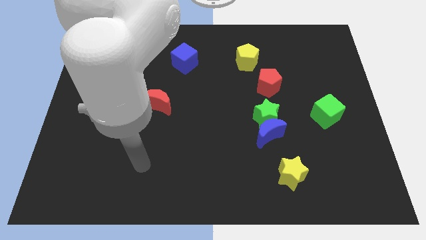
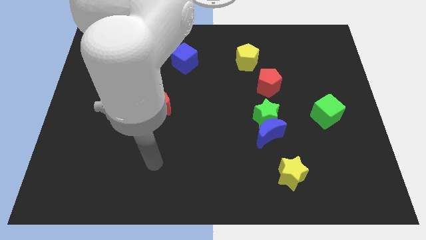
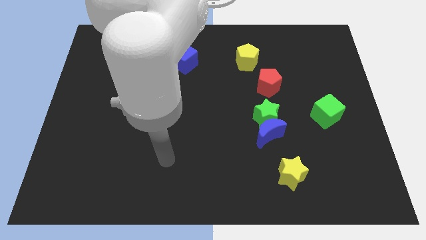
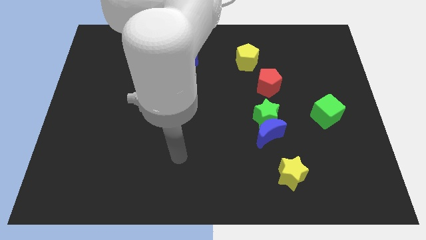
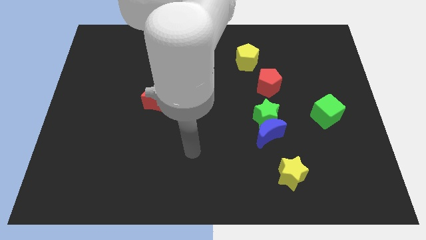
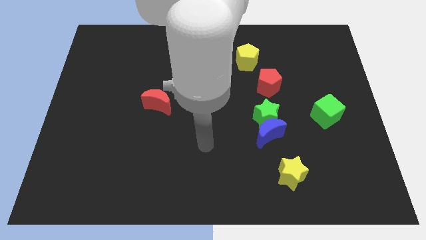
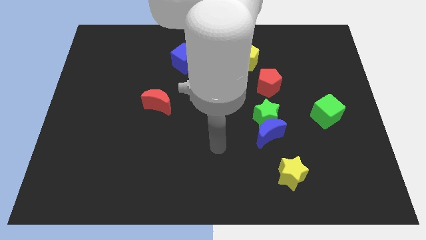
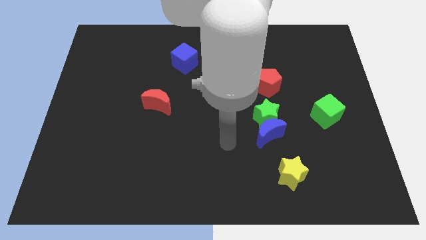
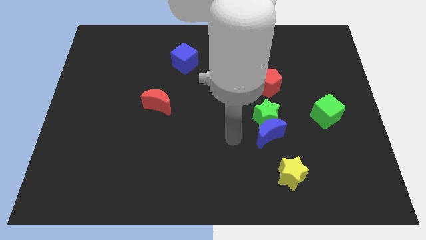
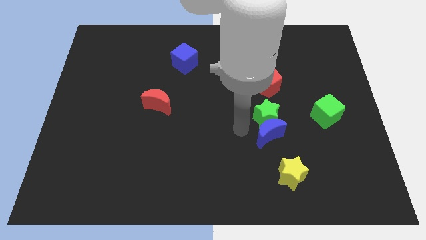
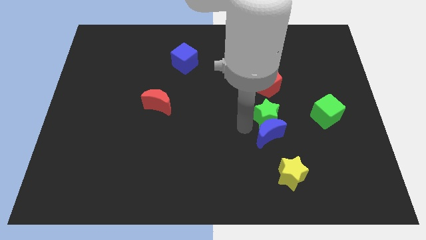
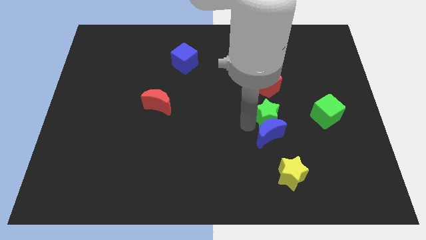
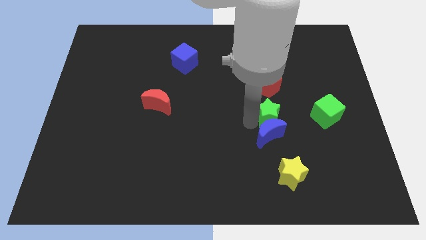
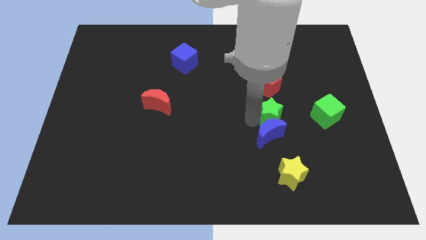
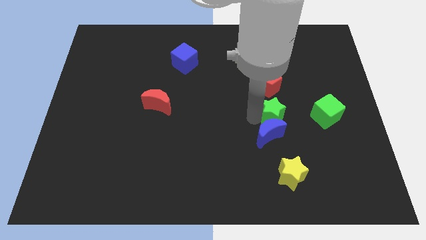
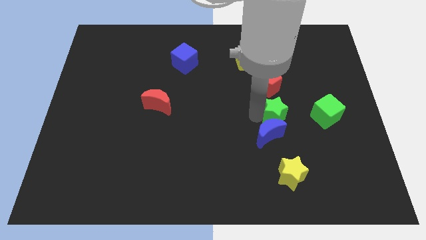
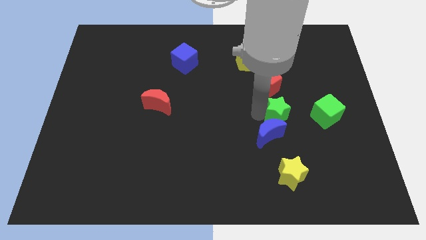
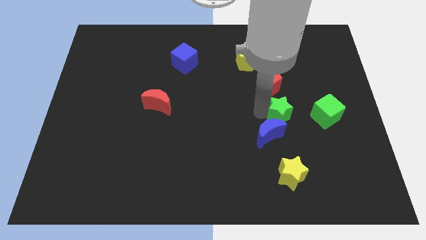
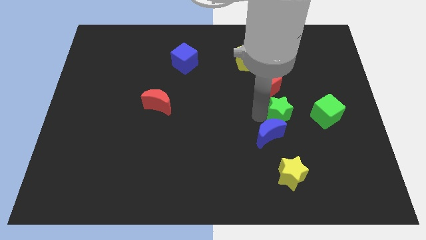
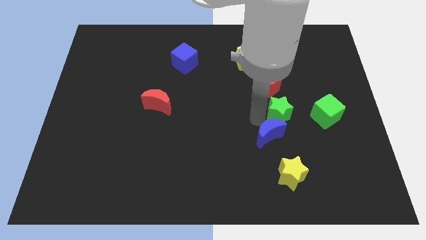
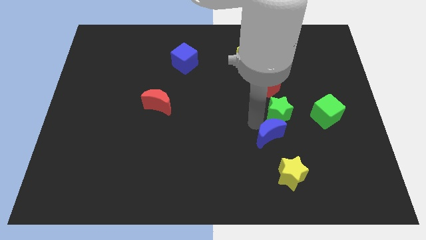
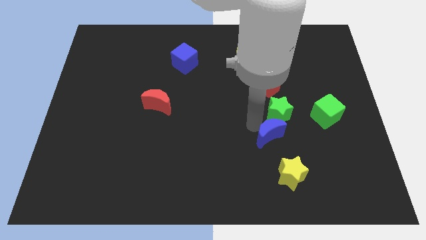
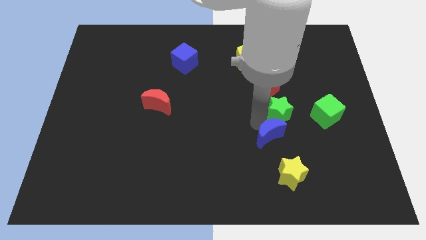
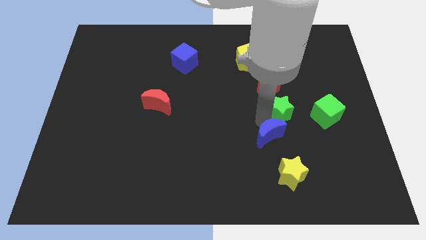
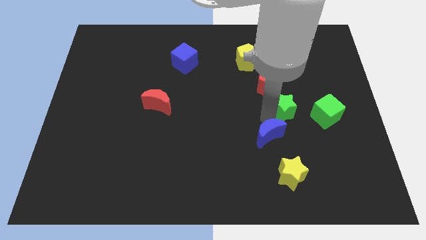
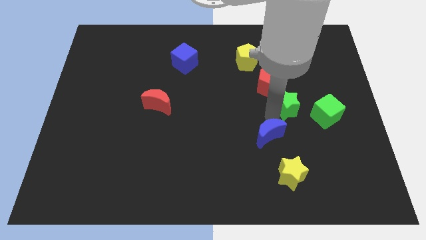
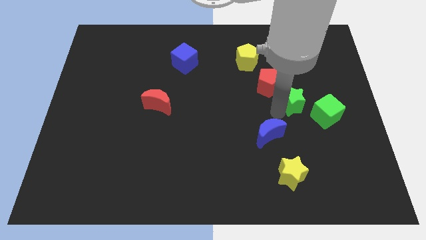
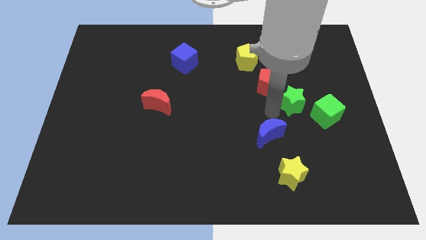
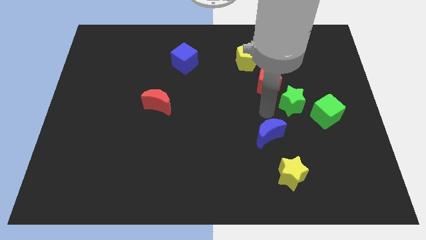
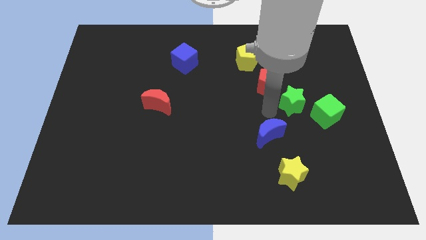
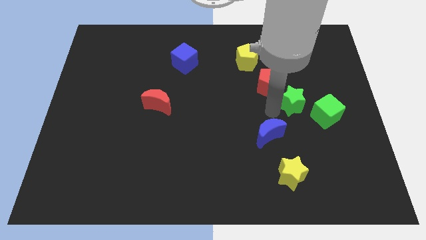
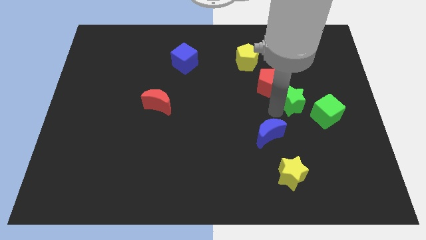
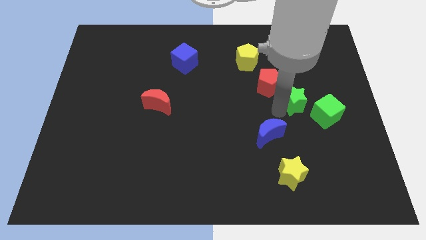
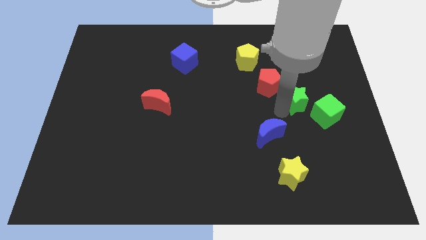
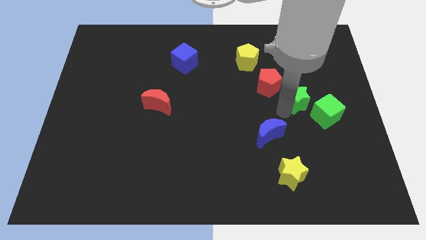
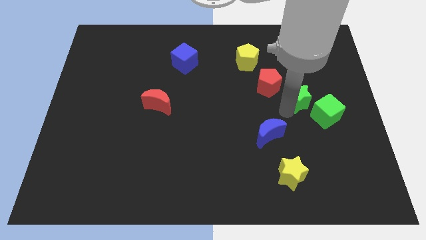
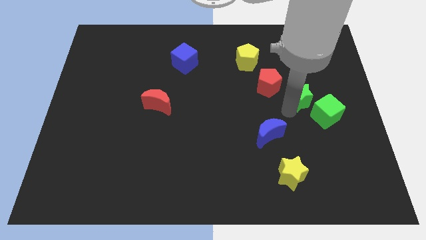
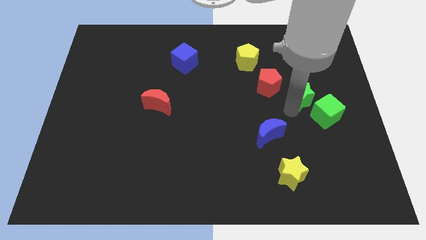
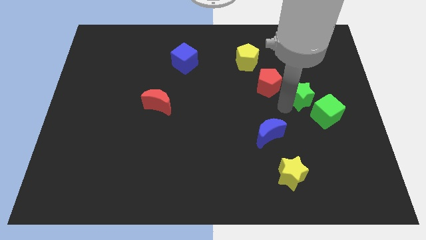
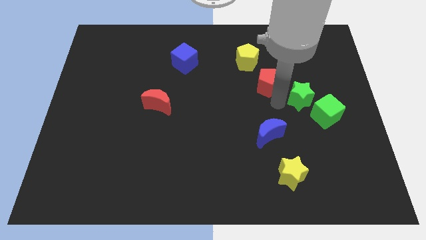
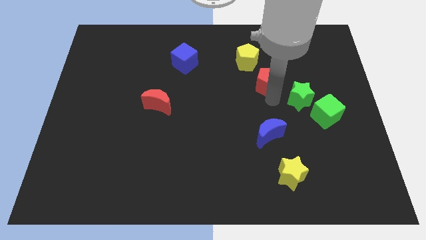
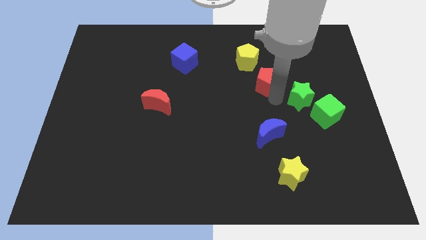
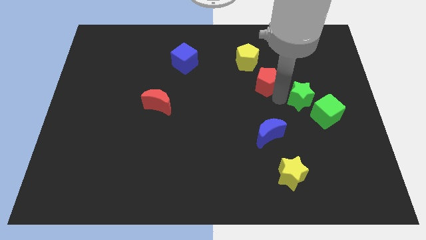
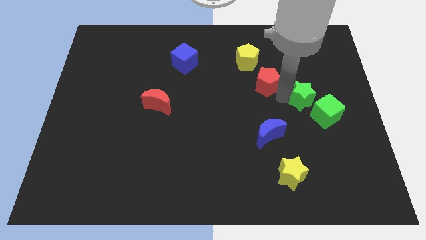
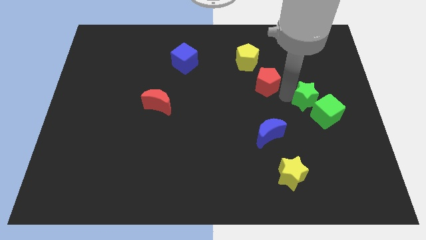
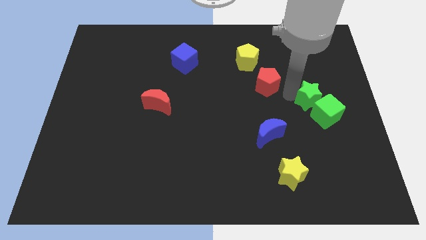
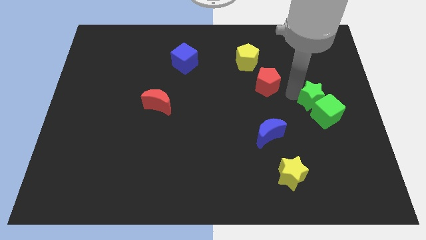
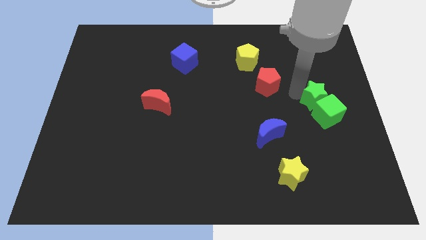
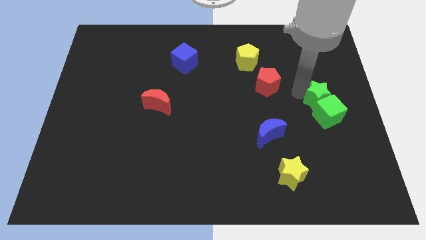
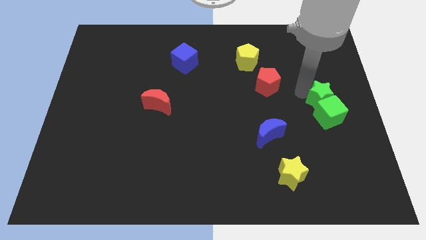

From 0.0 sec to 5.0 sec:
slide the green star to the right side

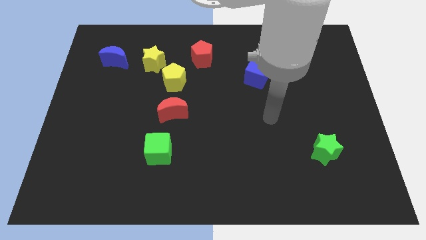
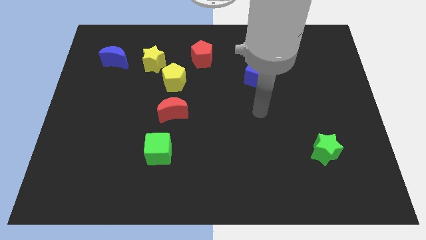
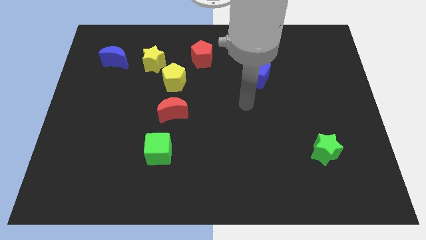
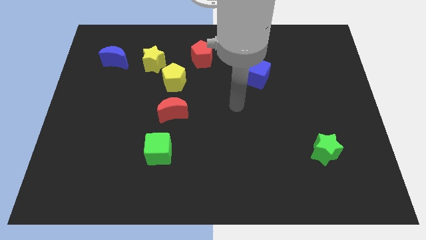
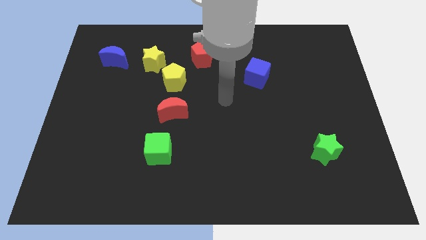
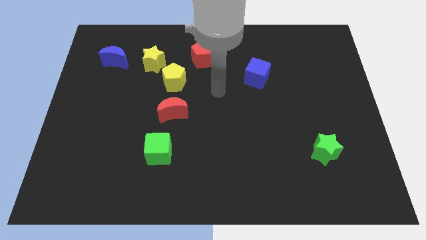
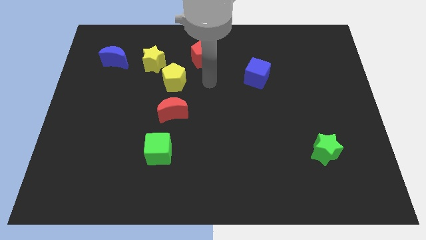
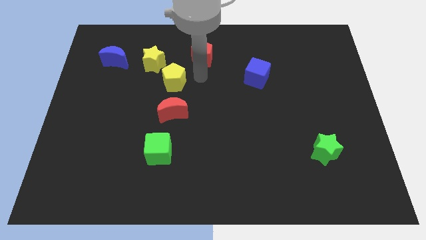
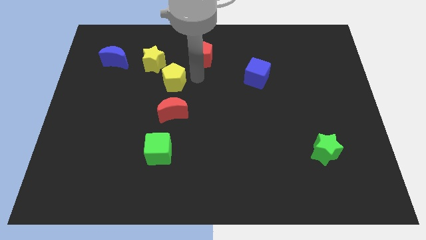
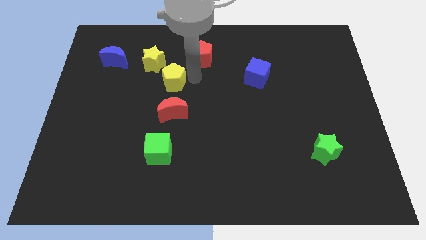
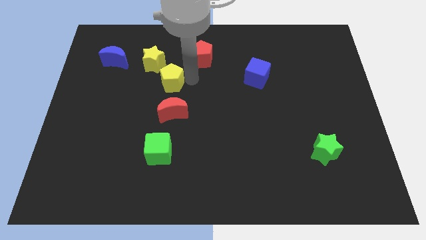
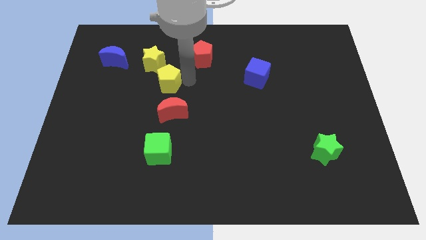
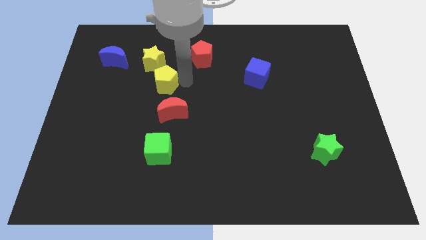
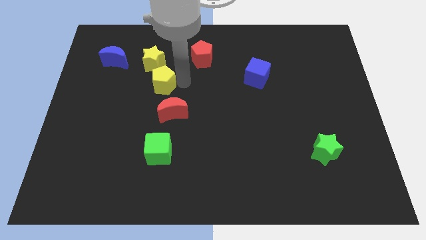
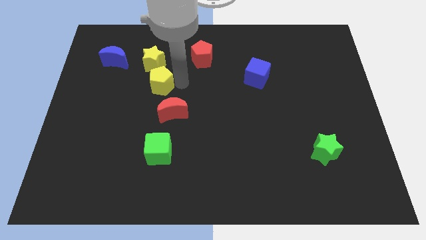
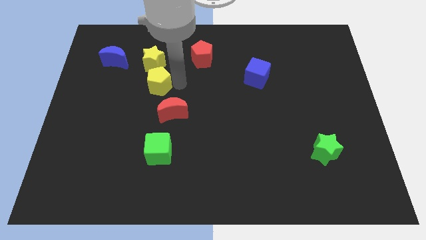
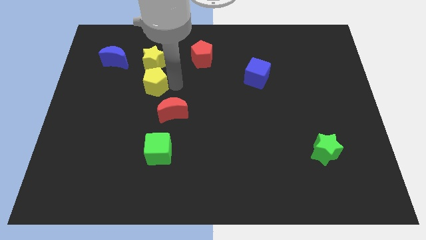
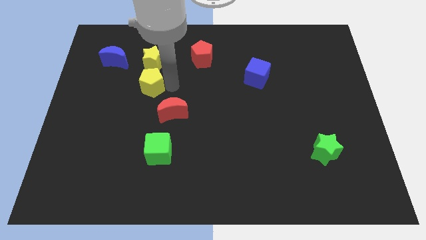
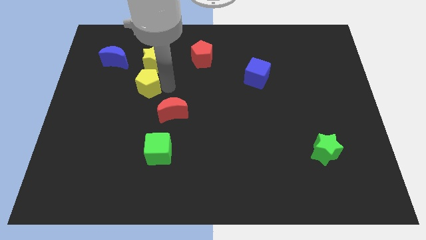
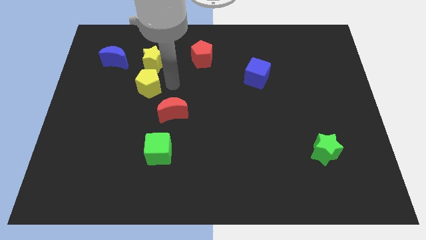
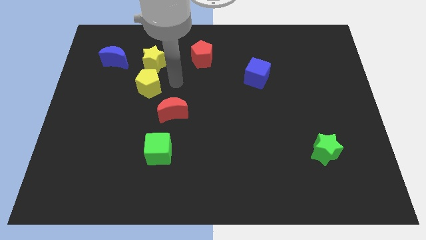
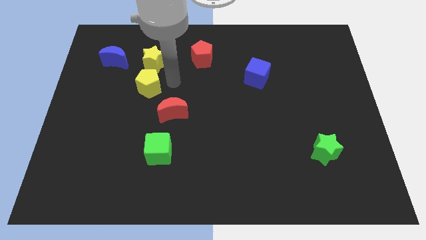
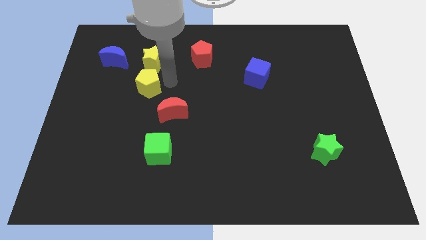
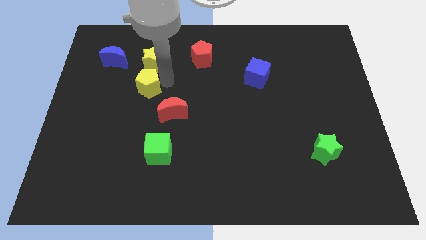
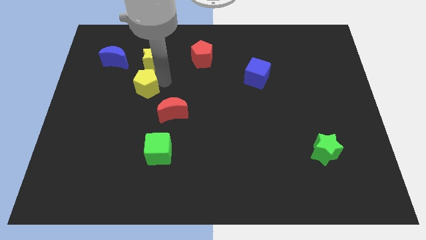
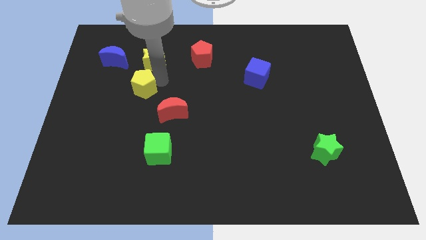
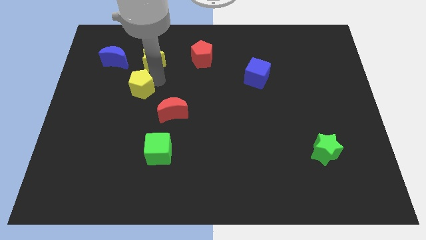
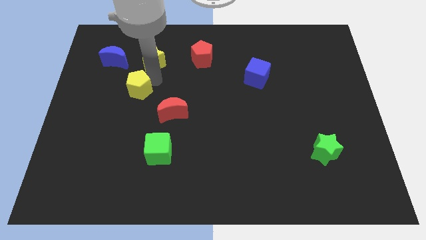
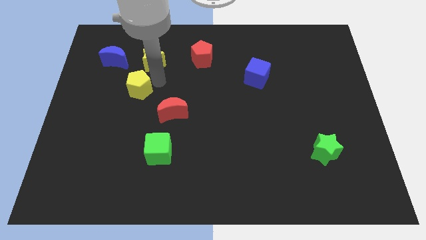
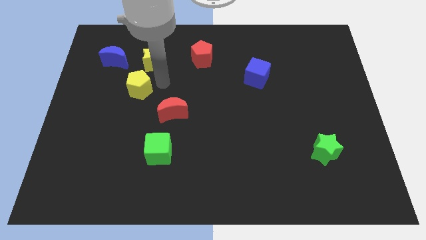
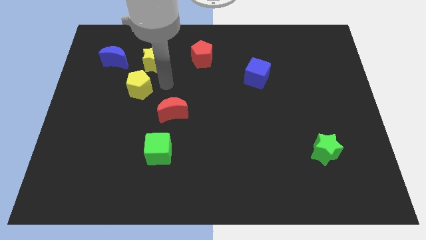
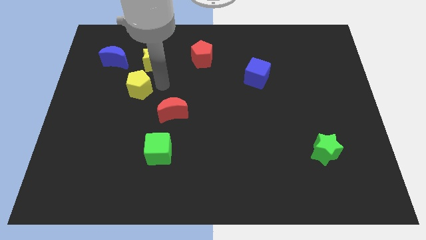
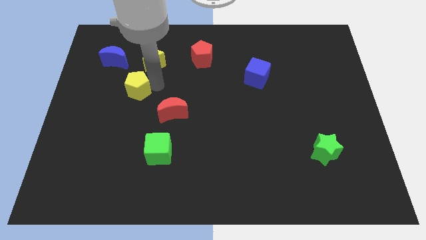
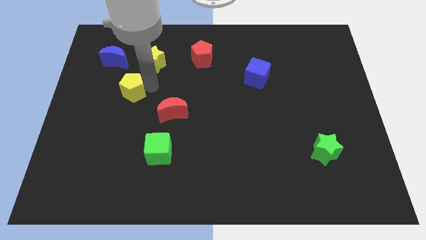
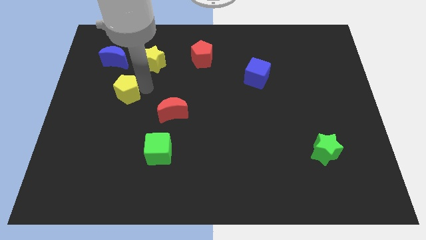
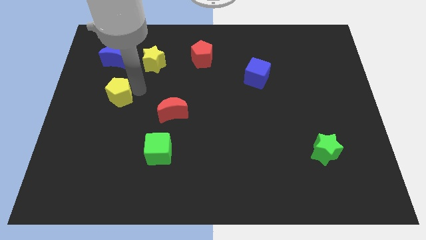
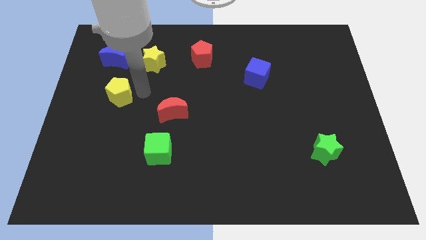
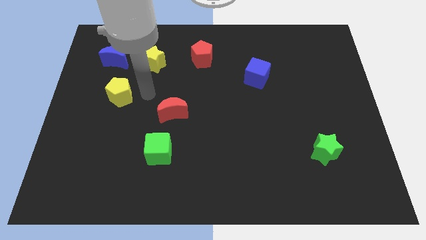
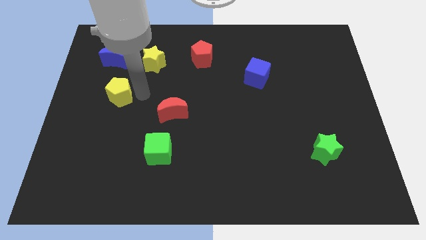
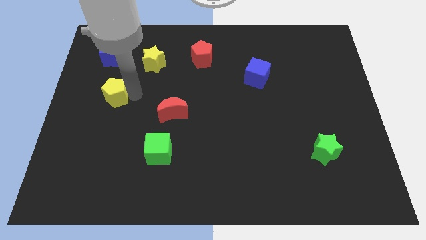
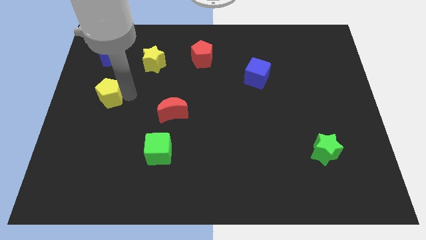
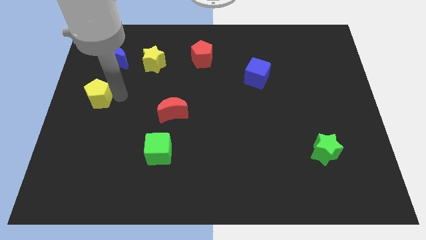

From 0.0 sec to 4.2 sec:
slide the yellow pentagon to the left side
